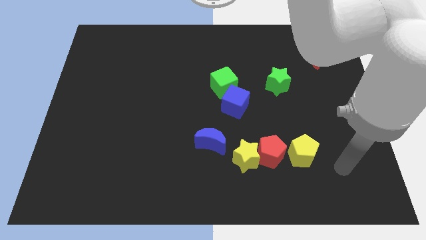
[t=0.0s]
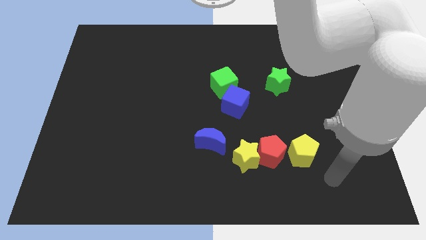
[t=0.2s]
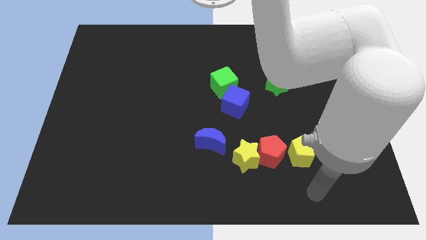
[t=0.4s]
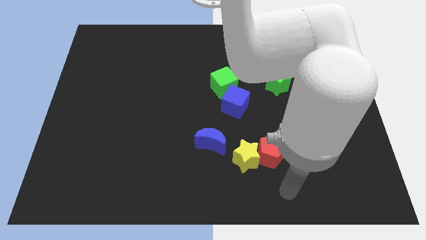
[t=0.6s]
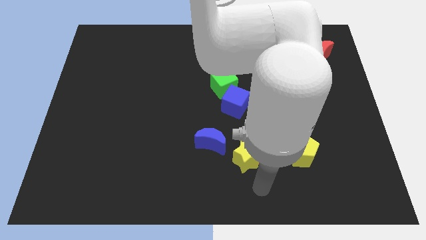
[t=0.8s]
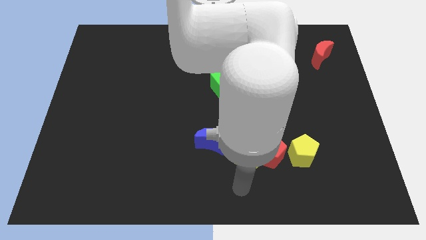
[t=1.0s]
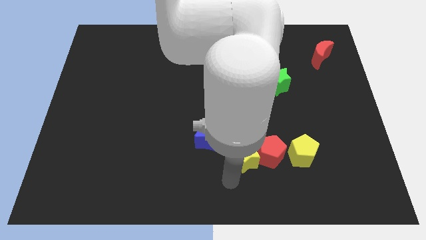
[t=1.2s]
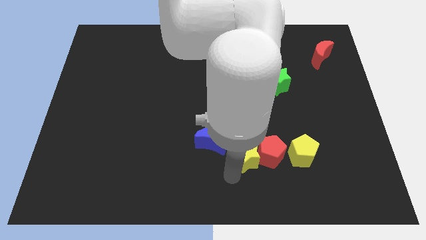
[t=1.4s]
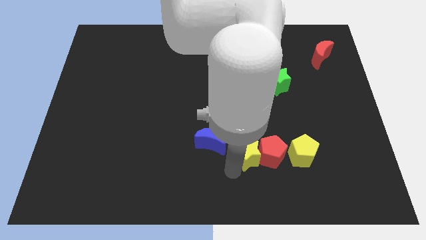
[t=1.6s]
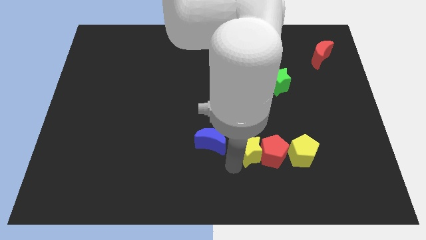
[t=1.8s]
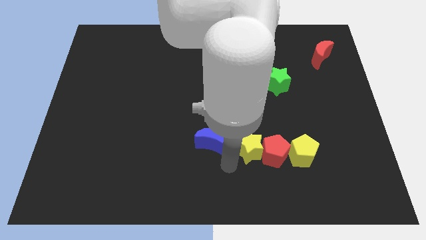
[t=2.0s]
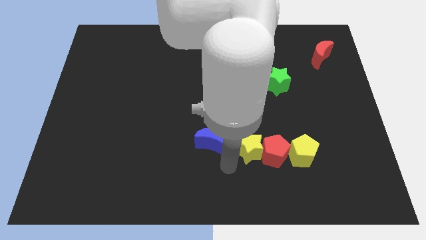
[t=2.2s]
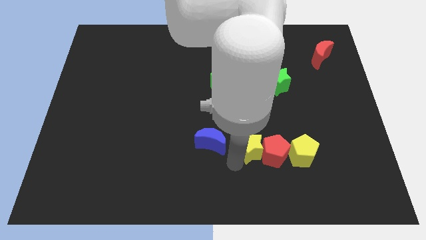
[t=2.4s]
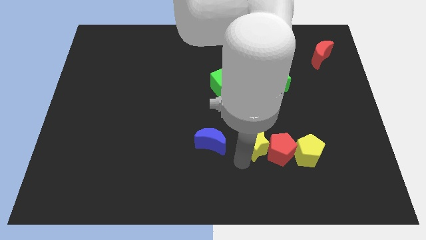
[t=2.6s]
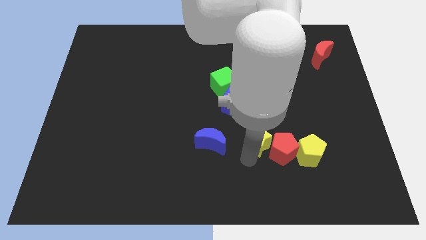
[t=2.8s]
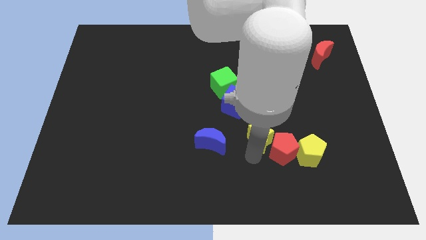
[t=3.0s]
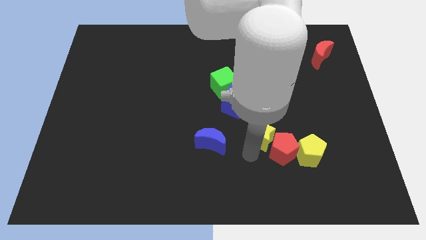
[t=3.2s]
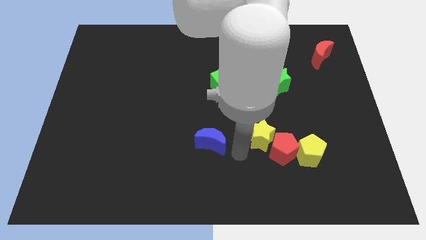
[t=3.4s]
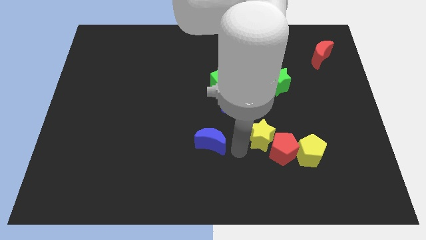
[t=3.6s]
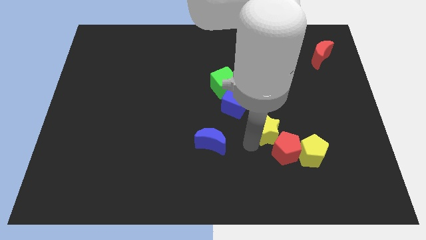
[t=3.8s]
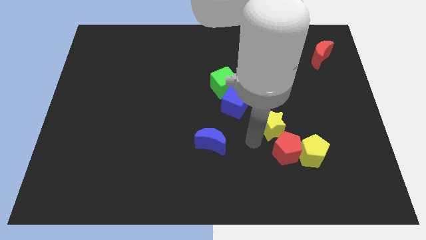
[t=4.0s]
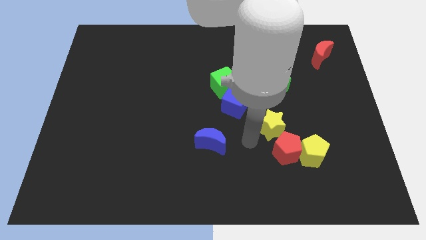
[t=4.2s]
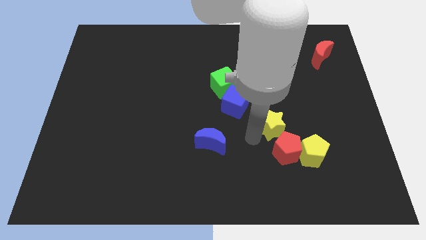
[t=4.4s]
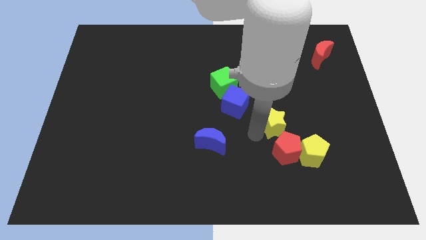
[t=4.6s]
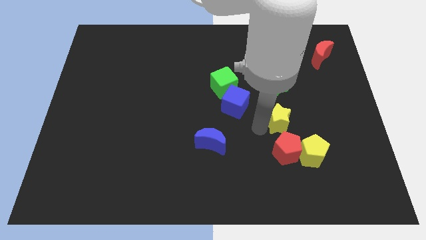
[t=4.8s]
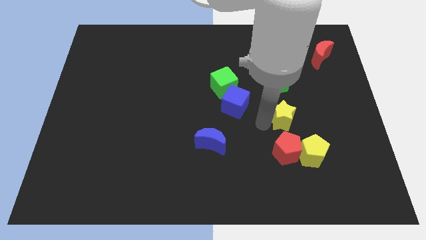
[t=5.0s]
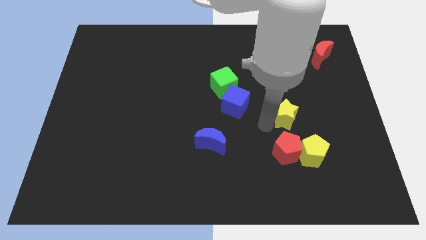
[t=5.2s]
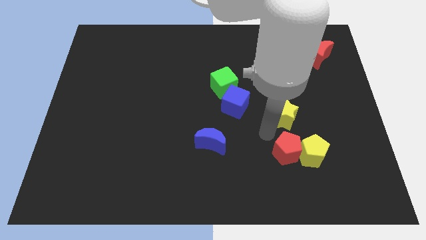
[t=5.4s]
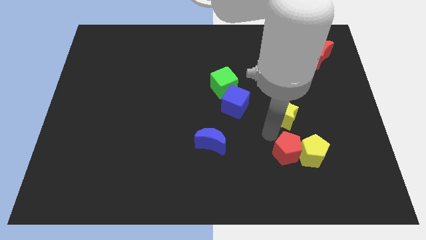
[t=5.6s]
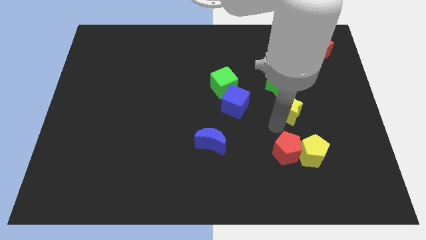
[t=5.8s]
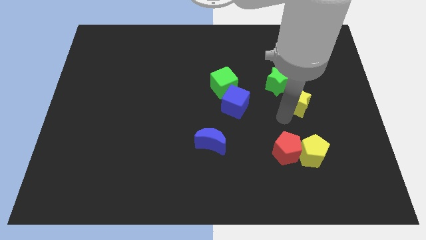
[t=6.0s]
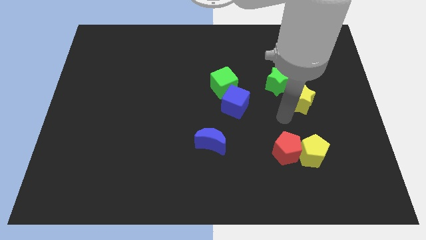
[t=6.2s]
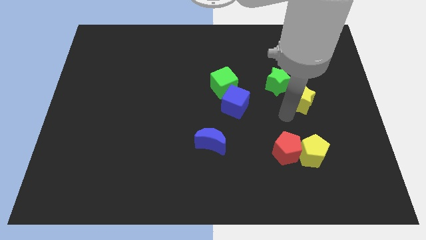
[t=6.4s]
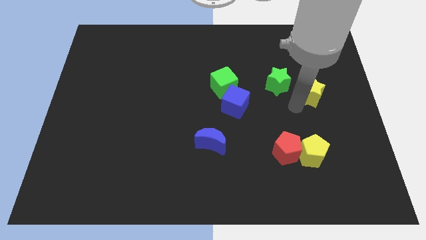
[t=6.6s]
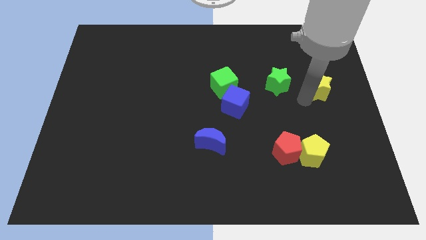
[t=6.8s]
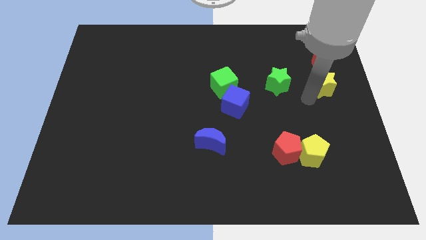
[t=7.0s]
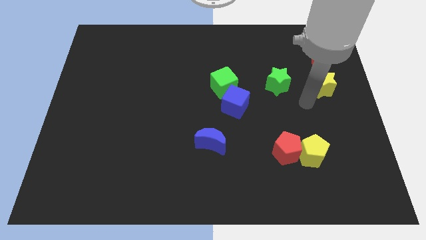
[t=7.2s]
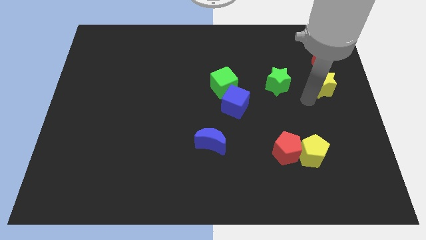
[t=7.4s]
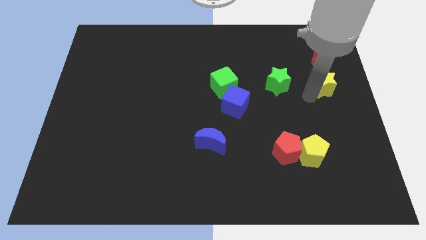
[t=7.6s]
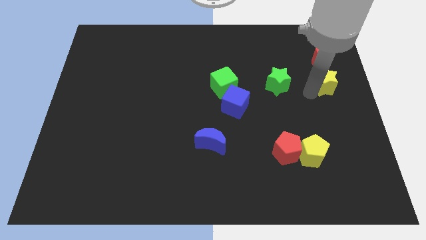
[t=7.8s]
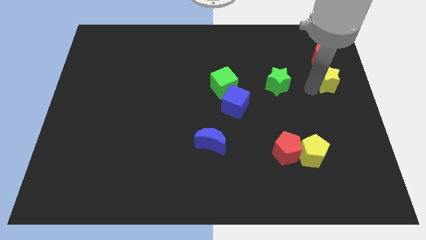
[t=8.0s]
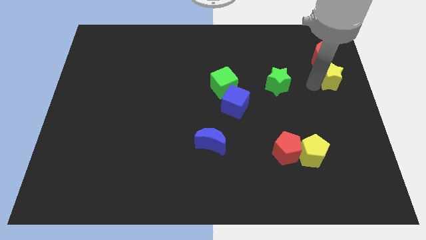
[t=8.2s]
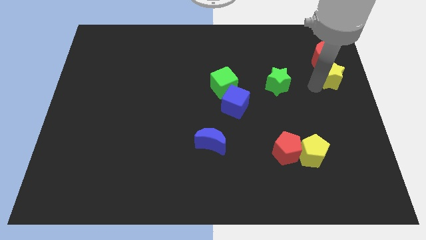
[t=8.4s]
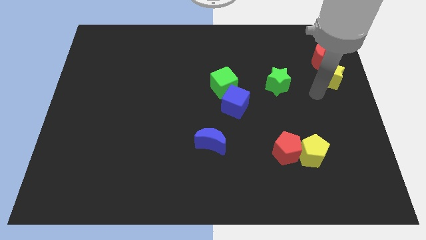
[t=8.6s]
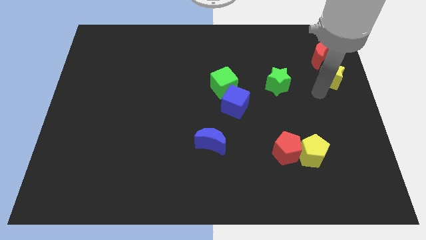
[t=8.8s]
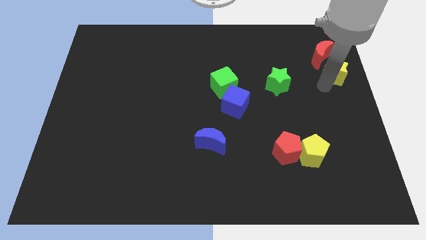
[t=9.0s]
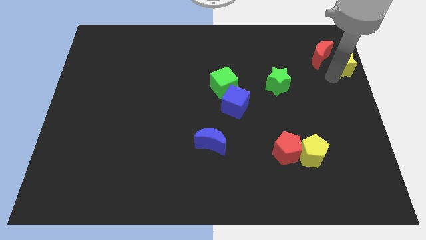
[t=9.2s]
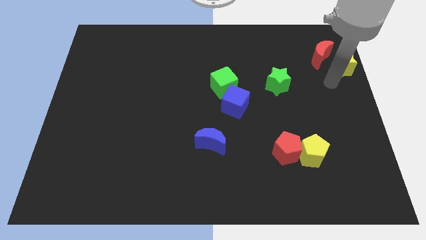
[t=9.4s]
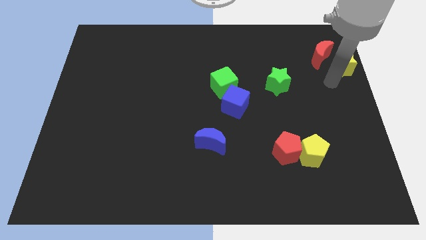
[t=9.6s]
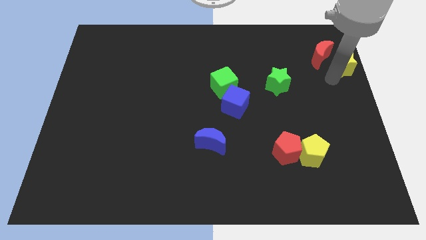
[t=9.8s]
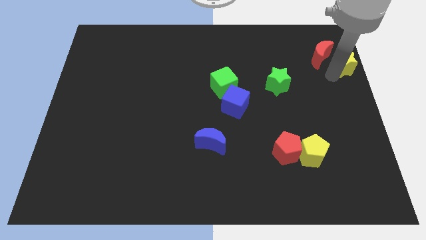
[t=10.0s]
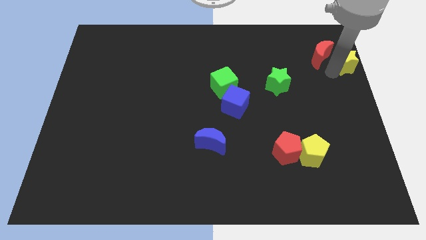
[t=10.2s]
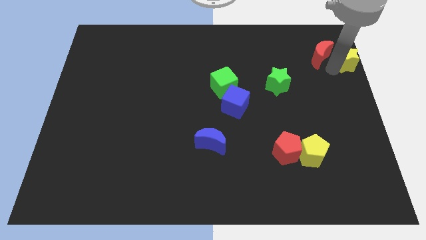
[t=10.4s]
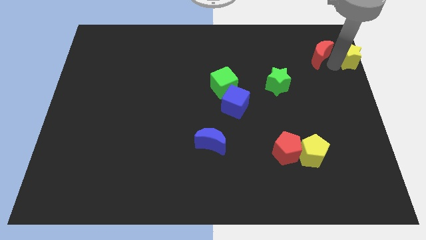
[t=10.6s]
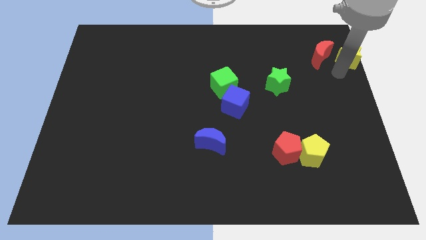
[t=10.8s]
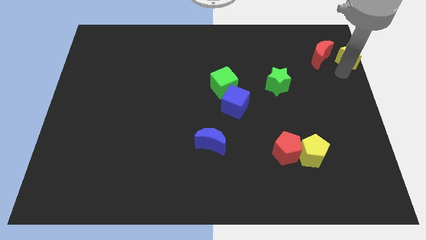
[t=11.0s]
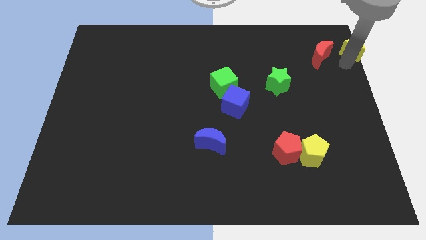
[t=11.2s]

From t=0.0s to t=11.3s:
move the yellow star to the top right

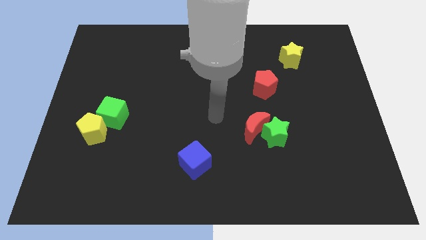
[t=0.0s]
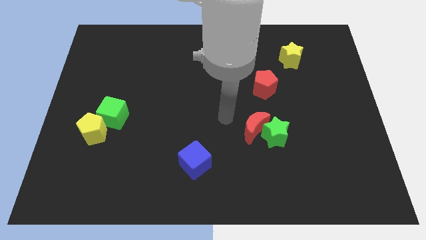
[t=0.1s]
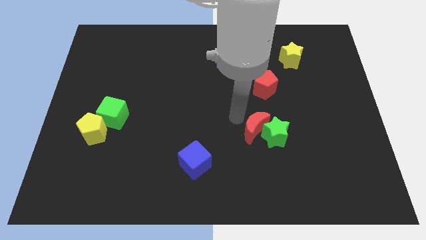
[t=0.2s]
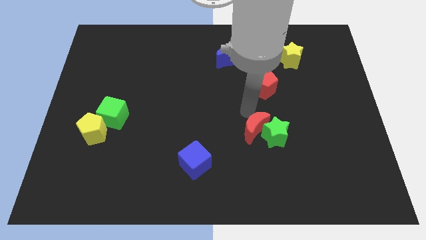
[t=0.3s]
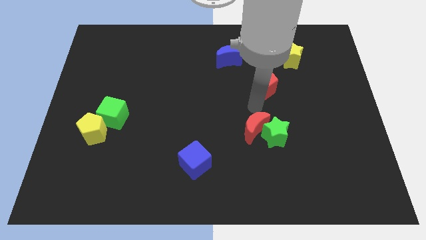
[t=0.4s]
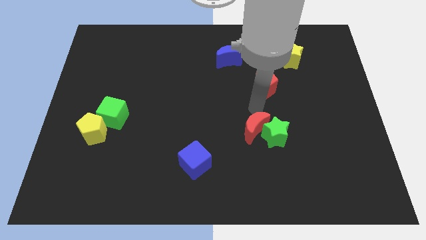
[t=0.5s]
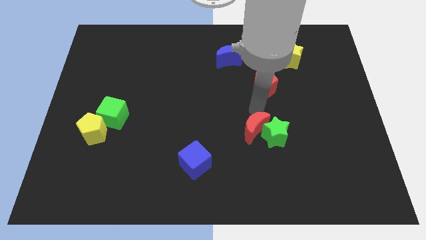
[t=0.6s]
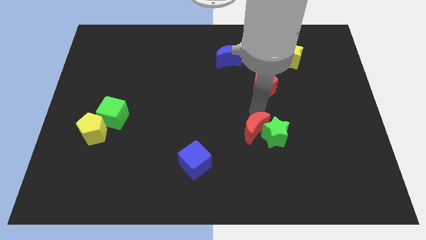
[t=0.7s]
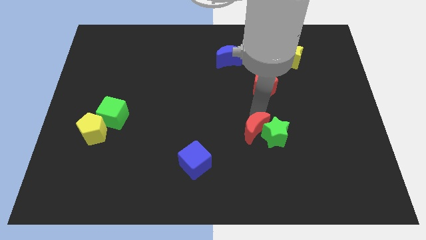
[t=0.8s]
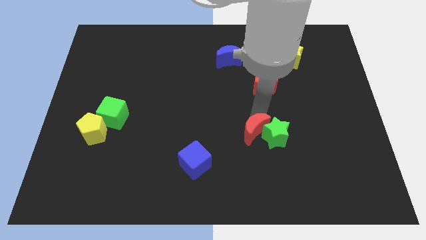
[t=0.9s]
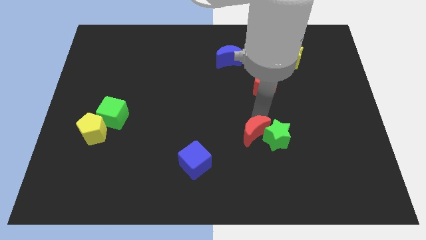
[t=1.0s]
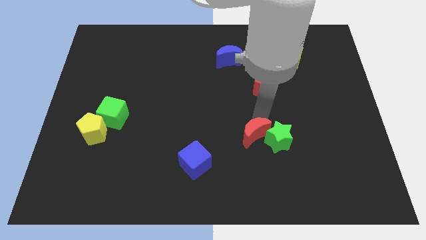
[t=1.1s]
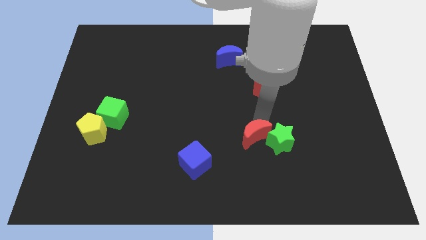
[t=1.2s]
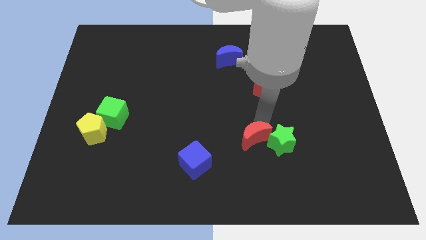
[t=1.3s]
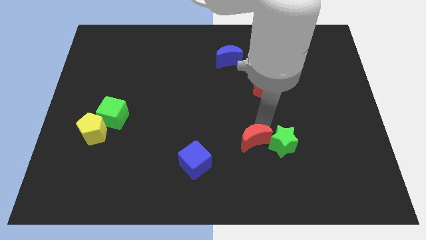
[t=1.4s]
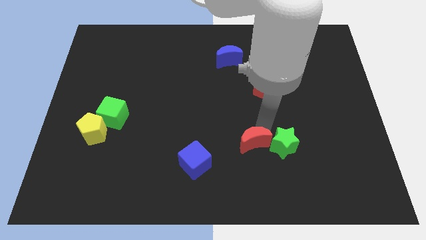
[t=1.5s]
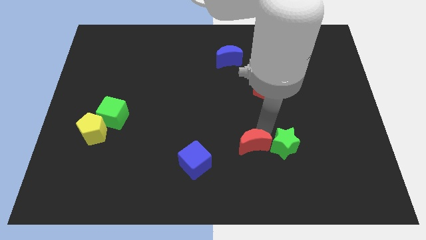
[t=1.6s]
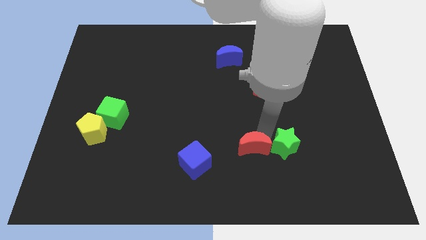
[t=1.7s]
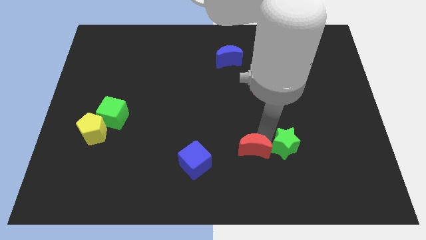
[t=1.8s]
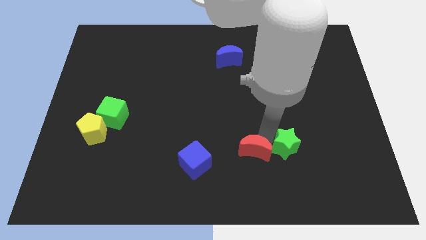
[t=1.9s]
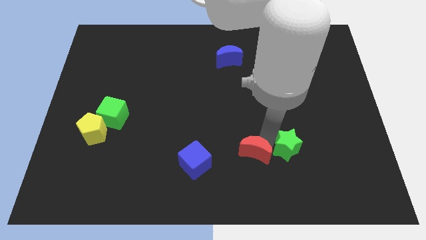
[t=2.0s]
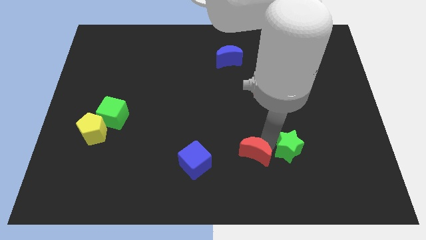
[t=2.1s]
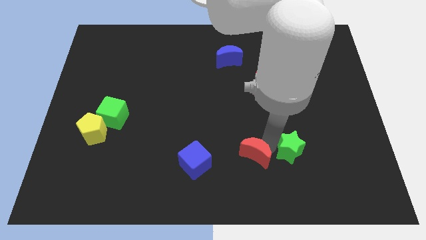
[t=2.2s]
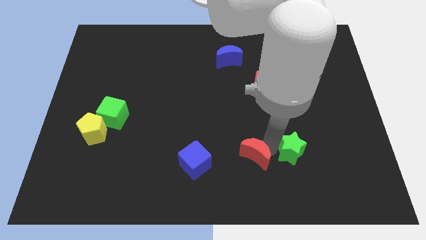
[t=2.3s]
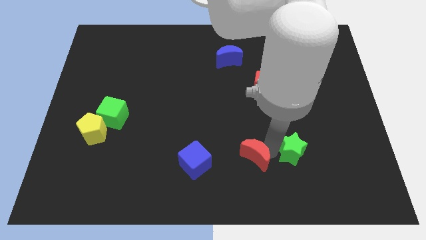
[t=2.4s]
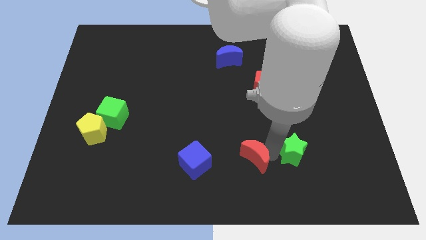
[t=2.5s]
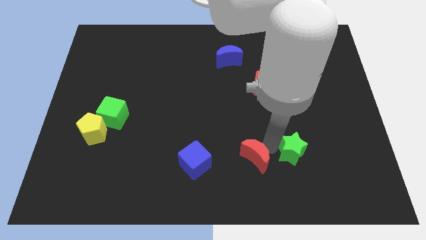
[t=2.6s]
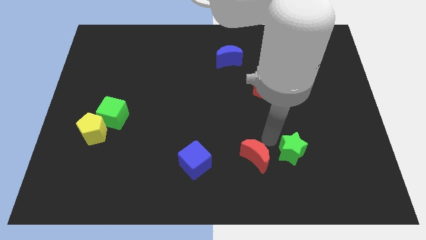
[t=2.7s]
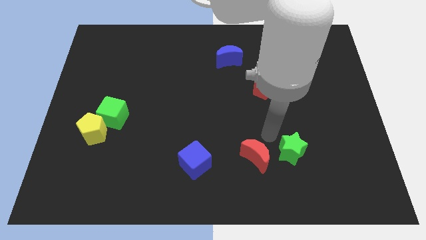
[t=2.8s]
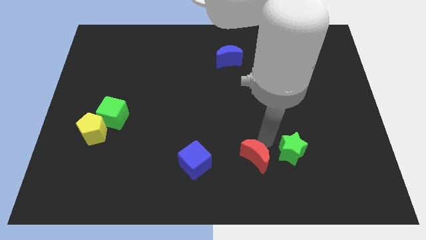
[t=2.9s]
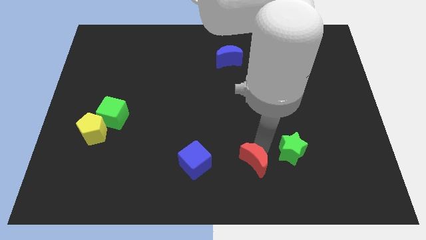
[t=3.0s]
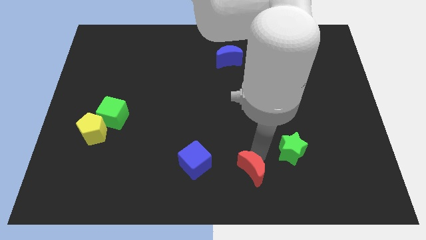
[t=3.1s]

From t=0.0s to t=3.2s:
push the red moon to the bottom side
